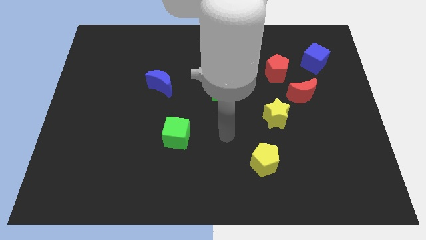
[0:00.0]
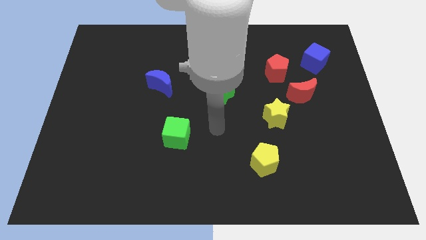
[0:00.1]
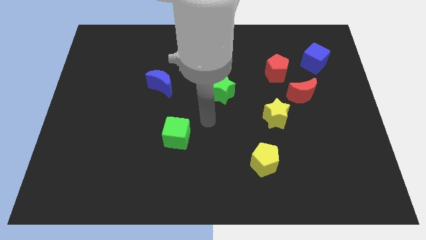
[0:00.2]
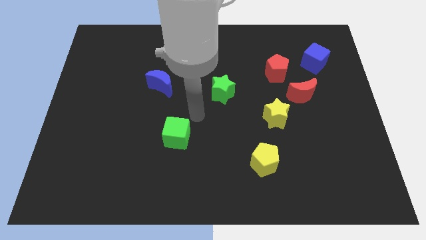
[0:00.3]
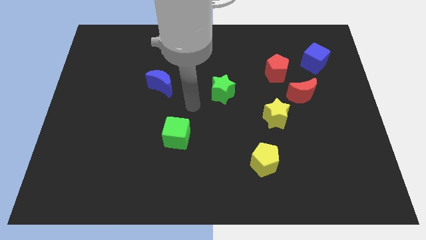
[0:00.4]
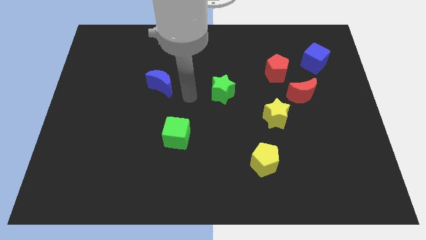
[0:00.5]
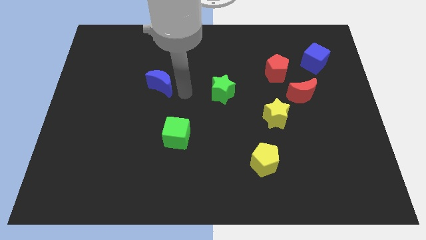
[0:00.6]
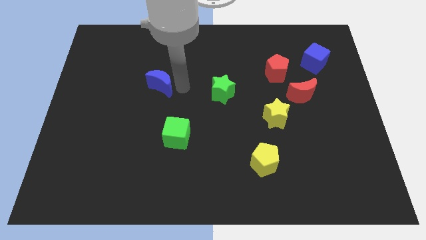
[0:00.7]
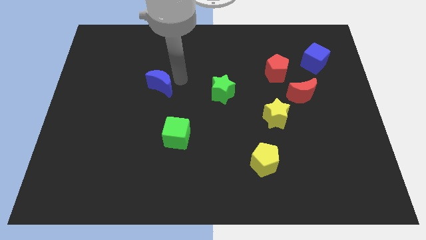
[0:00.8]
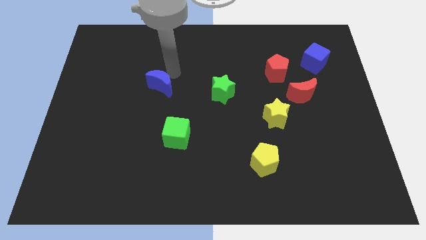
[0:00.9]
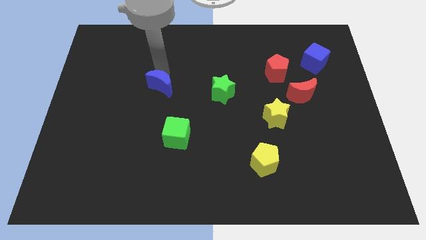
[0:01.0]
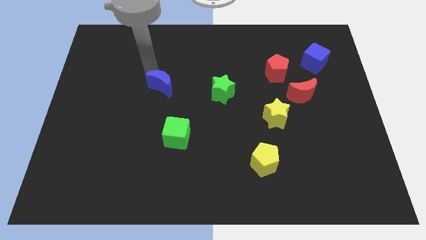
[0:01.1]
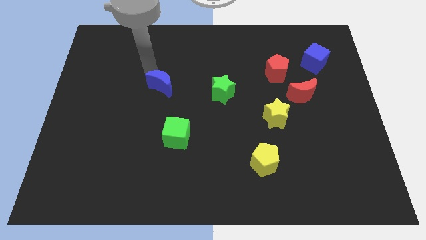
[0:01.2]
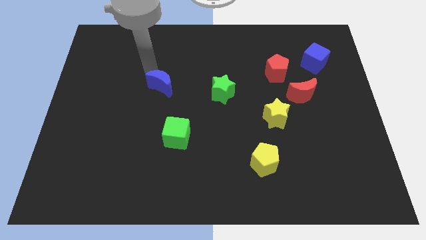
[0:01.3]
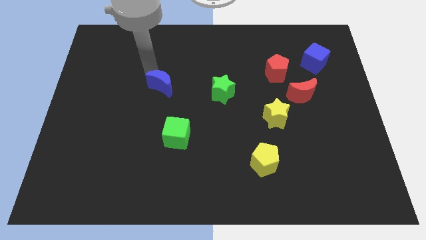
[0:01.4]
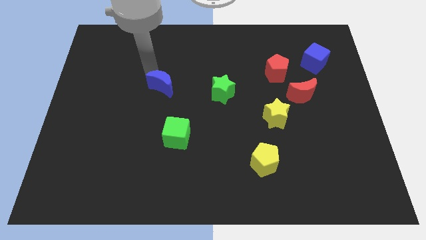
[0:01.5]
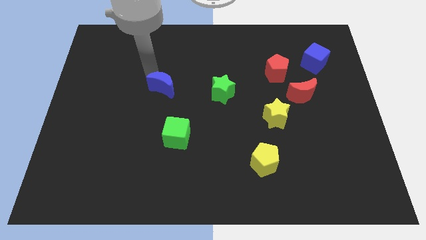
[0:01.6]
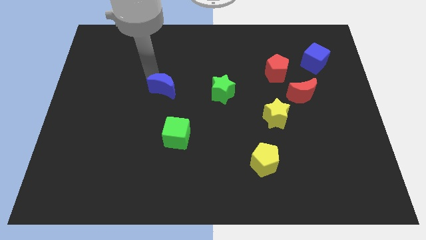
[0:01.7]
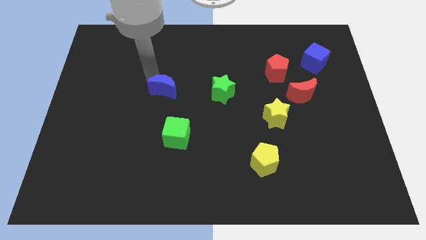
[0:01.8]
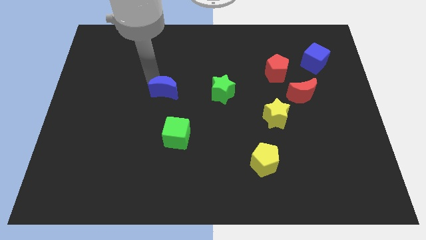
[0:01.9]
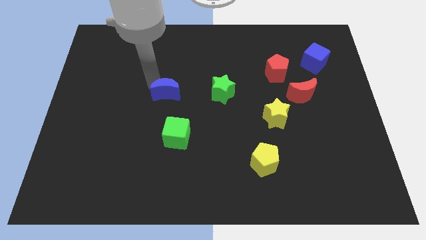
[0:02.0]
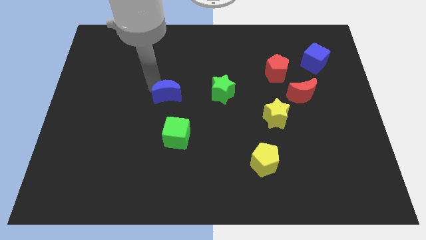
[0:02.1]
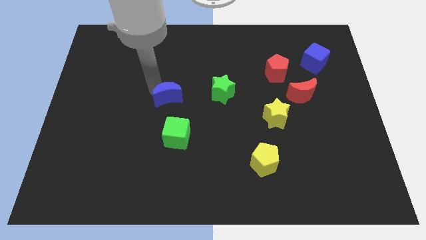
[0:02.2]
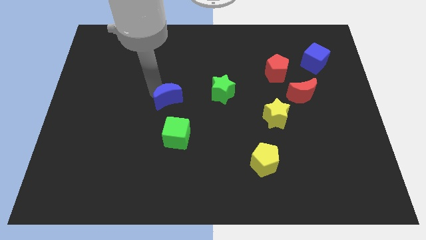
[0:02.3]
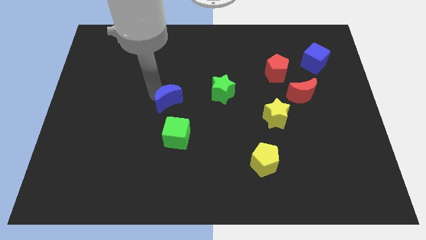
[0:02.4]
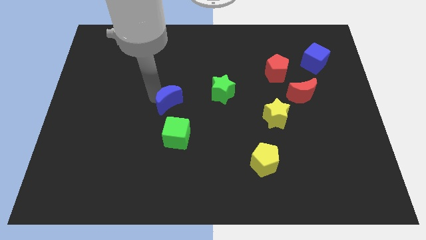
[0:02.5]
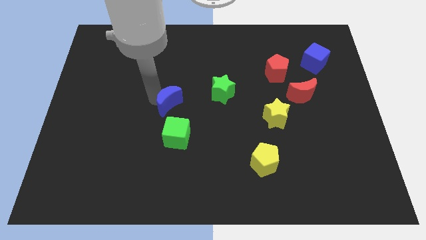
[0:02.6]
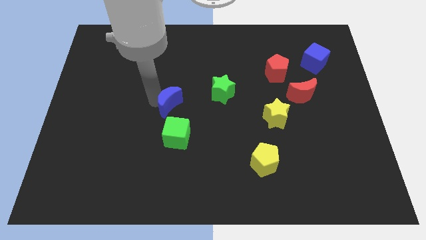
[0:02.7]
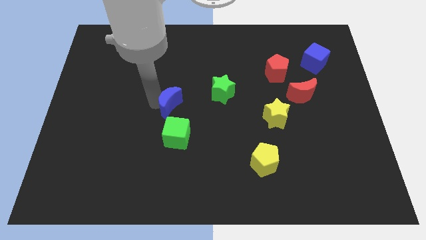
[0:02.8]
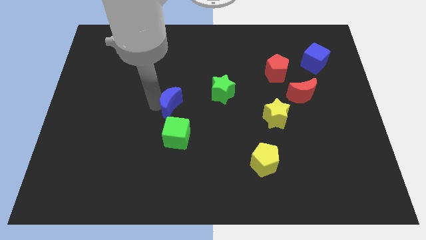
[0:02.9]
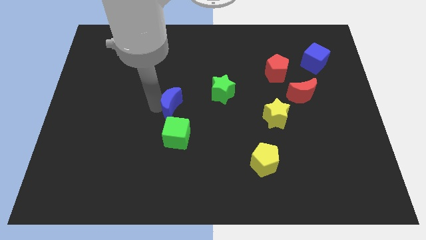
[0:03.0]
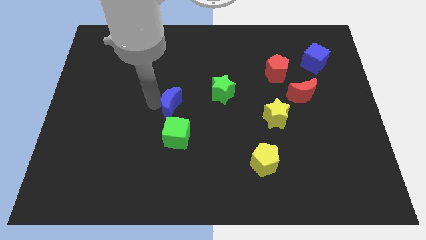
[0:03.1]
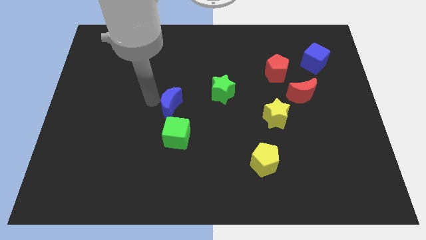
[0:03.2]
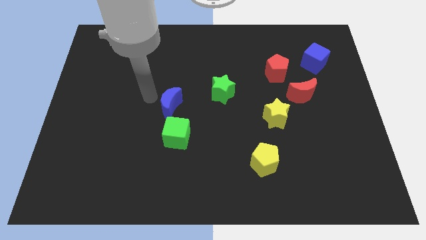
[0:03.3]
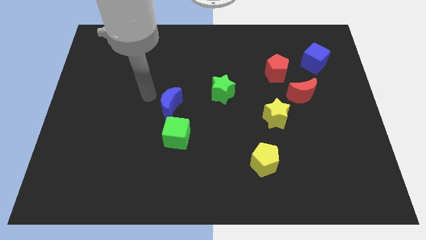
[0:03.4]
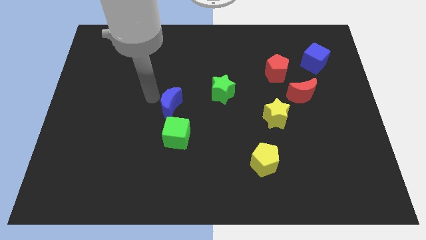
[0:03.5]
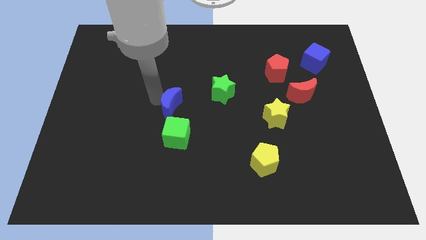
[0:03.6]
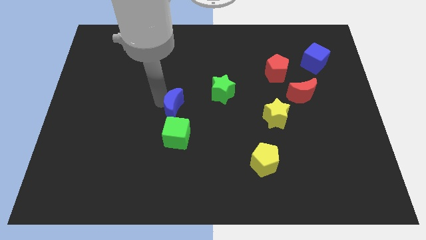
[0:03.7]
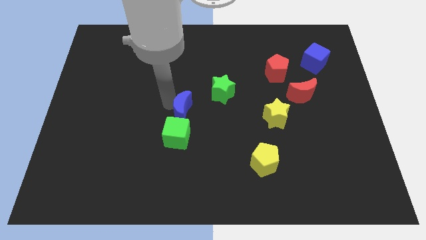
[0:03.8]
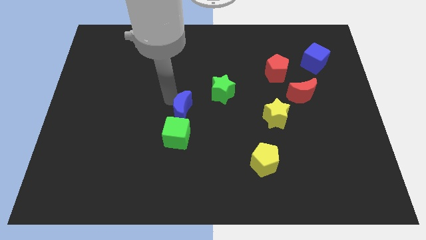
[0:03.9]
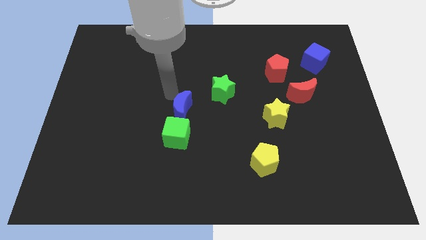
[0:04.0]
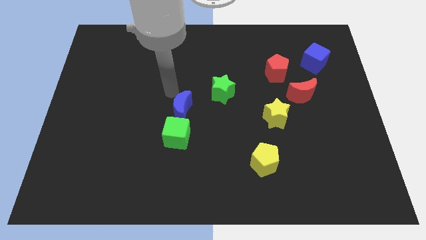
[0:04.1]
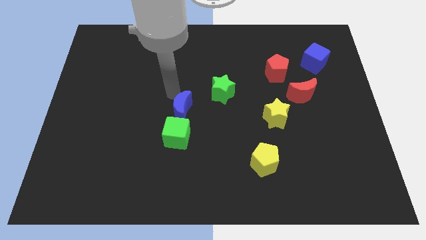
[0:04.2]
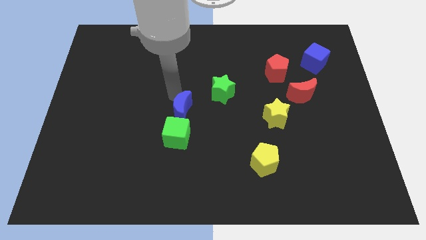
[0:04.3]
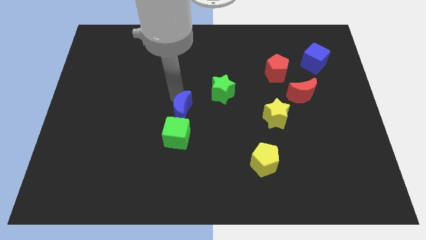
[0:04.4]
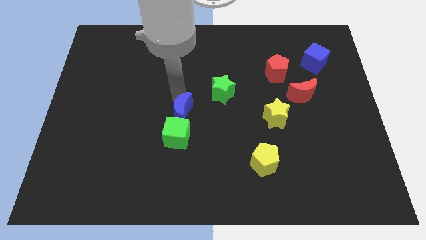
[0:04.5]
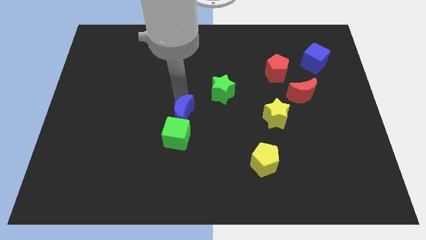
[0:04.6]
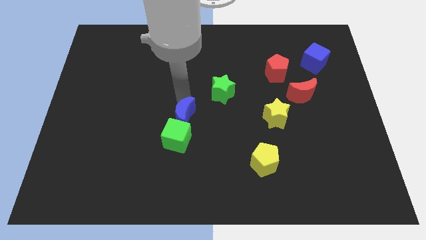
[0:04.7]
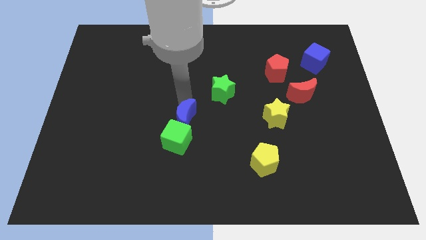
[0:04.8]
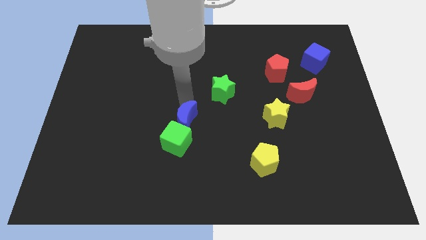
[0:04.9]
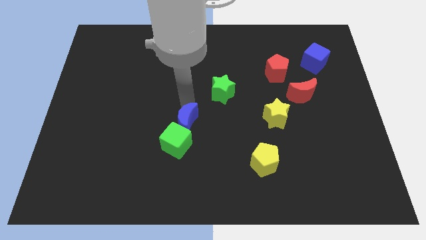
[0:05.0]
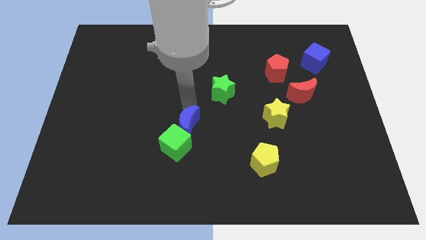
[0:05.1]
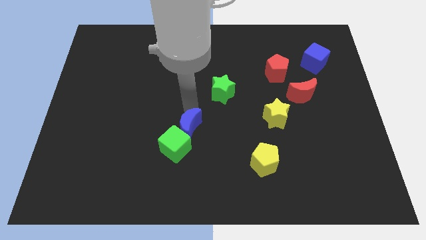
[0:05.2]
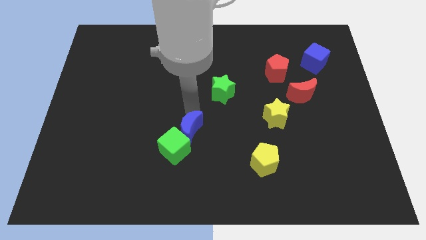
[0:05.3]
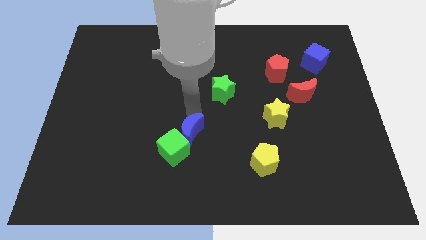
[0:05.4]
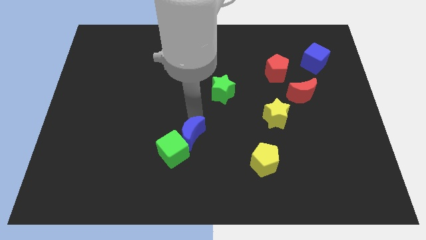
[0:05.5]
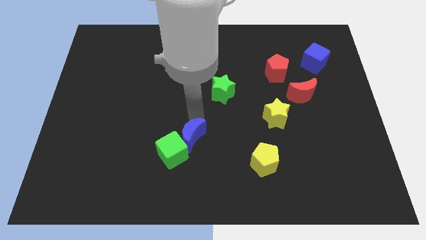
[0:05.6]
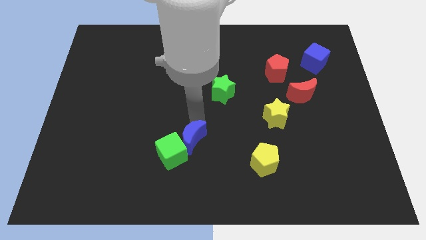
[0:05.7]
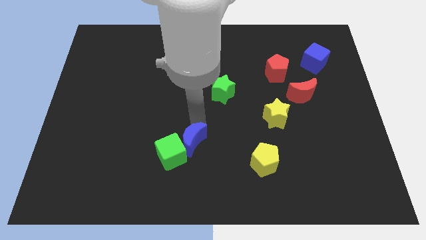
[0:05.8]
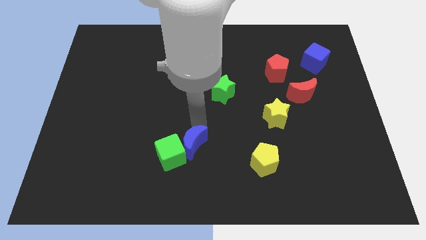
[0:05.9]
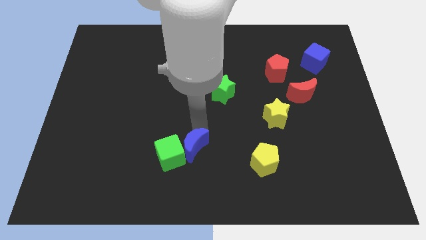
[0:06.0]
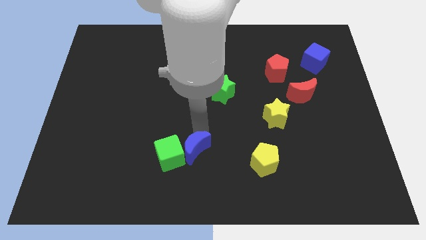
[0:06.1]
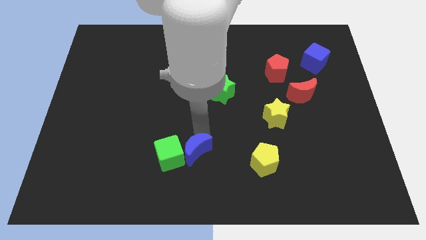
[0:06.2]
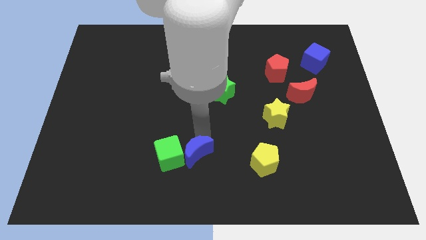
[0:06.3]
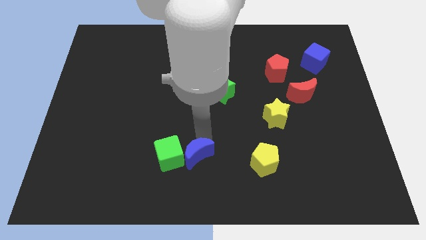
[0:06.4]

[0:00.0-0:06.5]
push the blue moon to the bottom side
